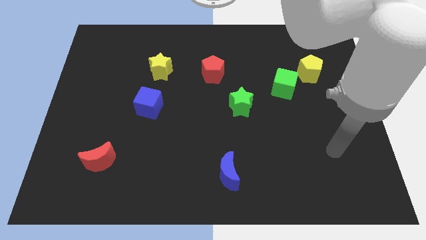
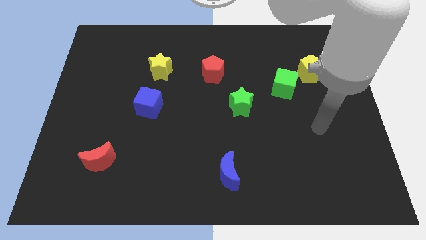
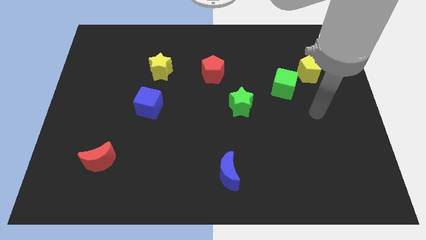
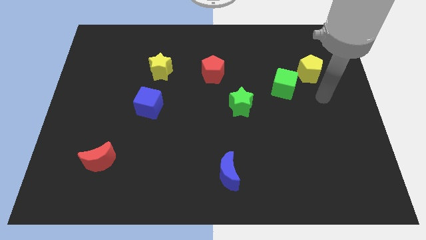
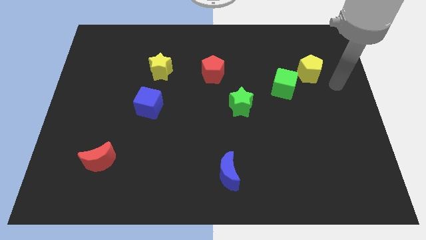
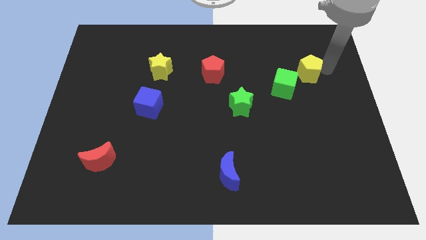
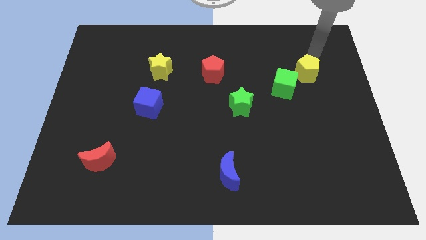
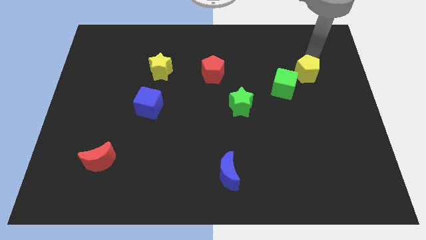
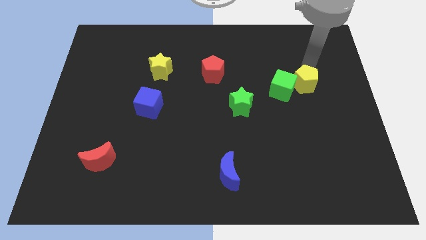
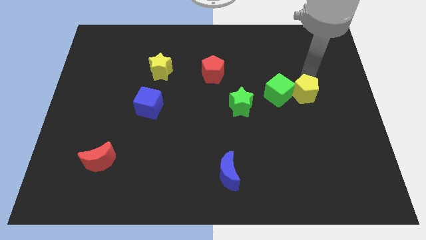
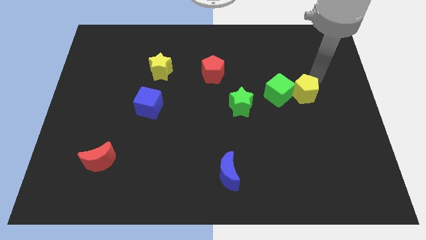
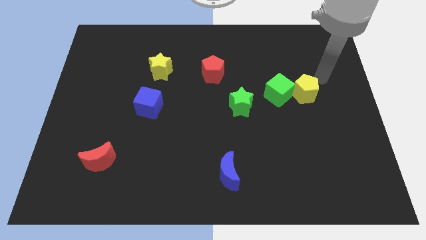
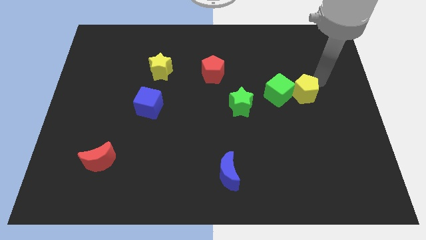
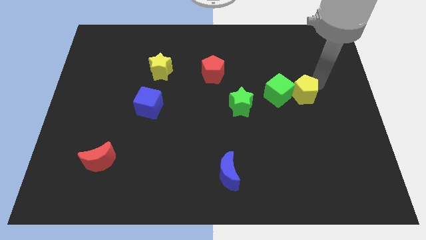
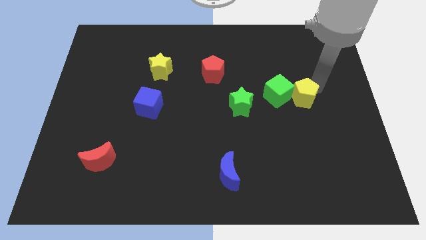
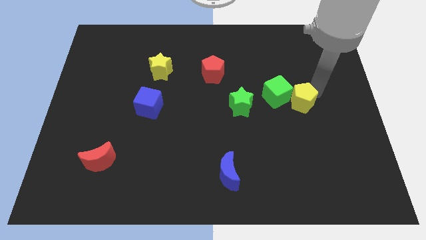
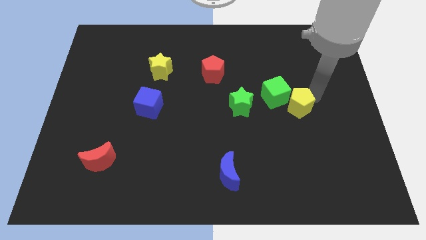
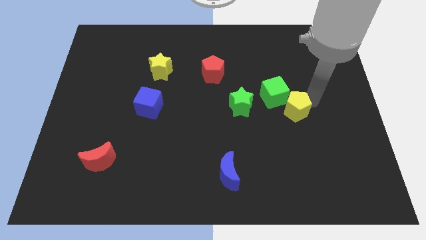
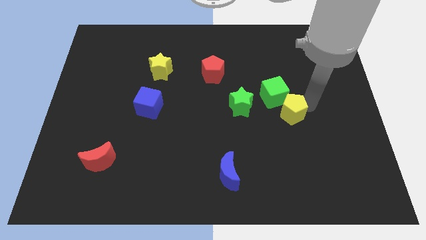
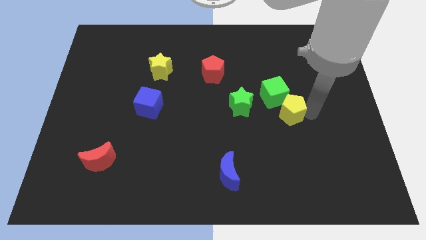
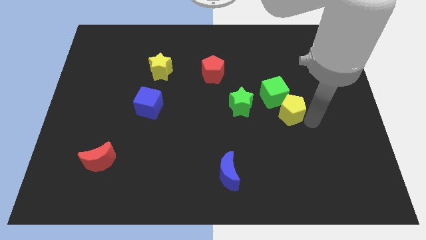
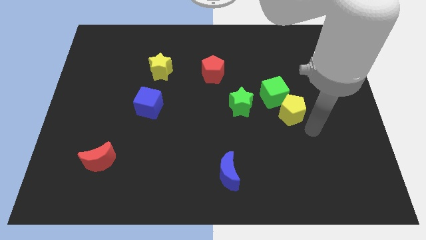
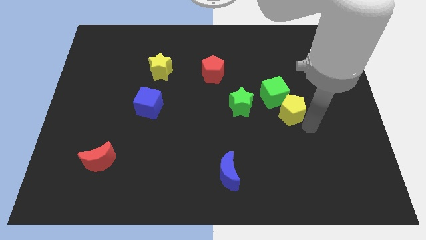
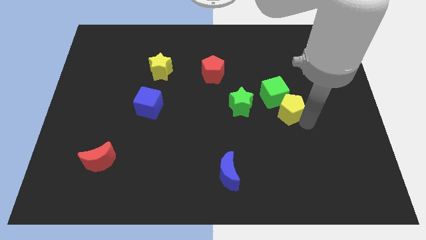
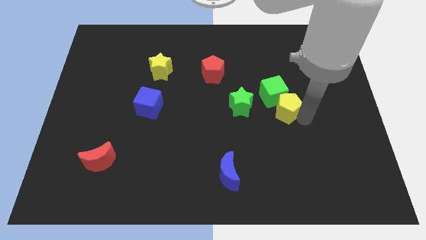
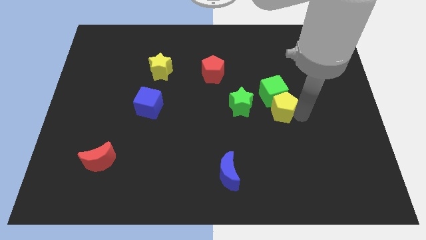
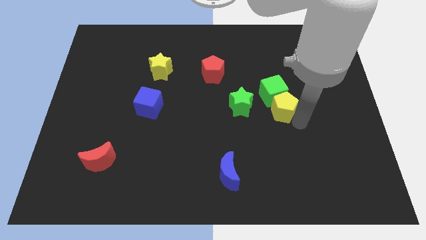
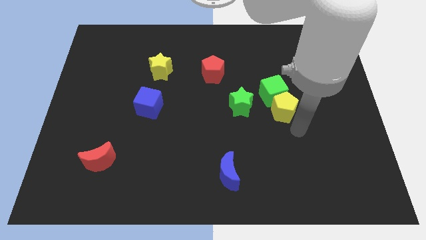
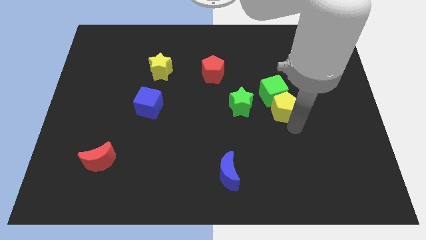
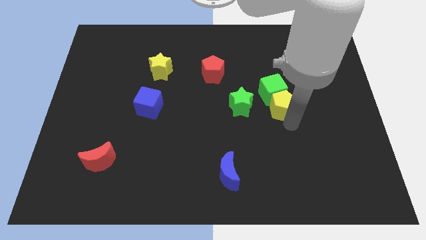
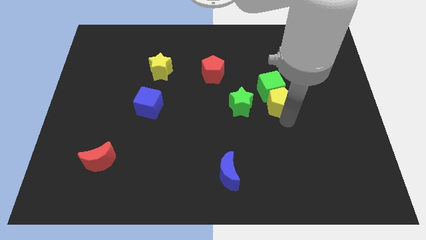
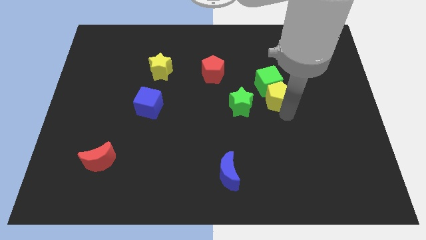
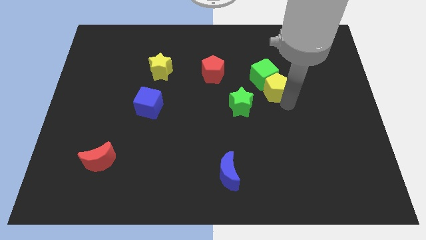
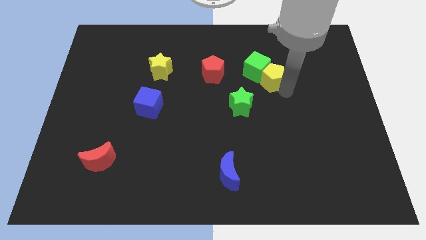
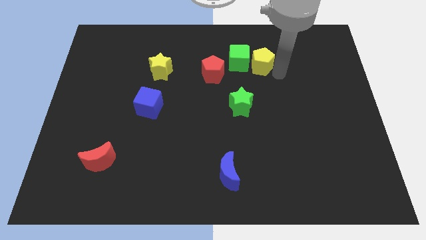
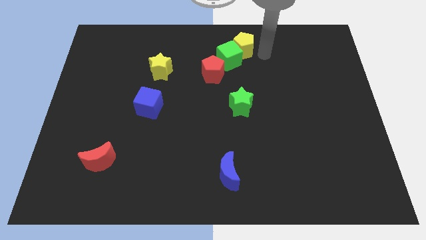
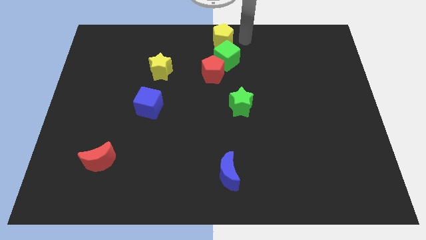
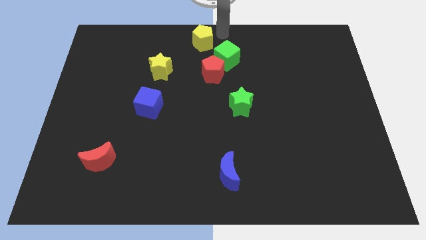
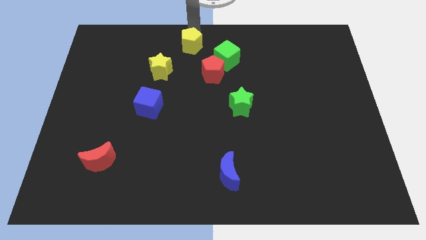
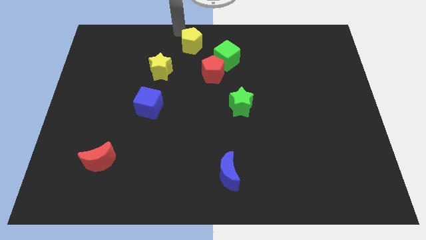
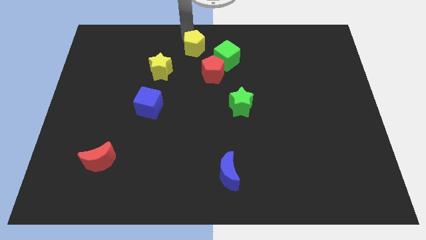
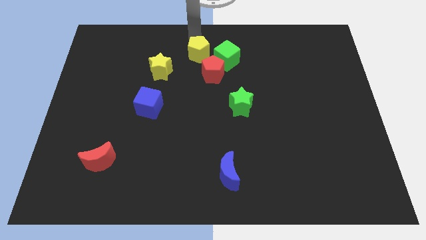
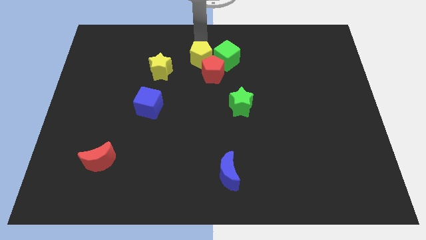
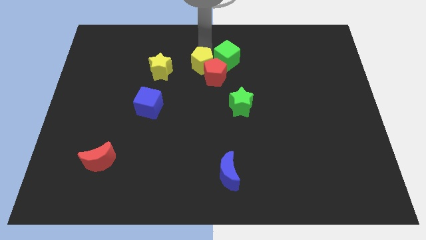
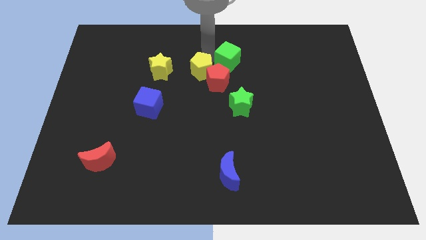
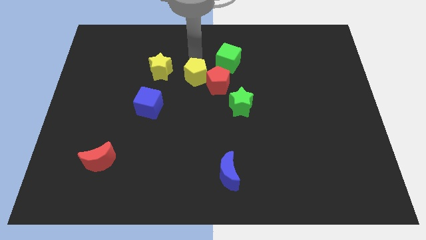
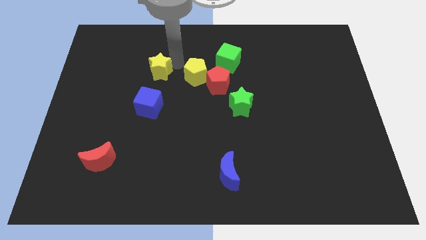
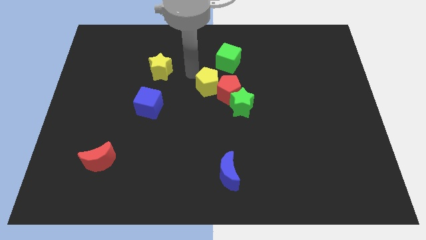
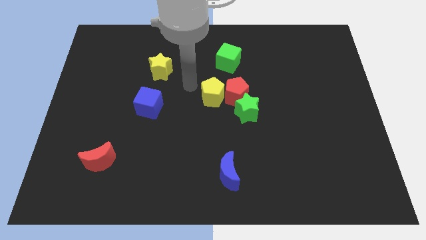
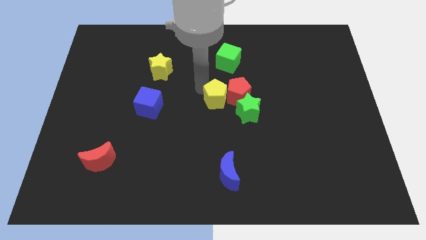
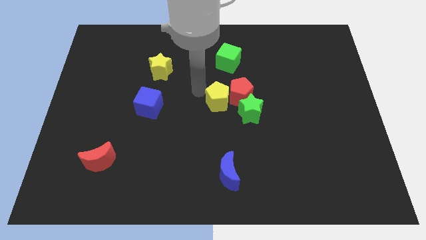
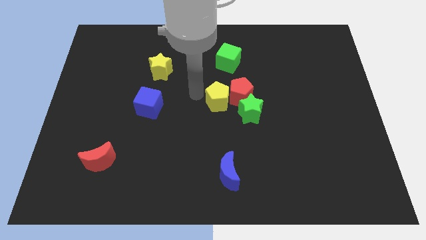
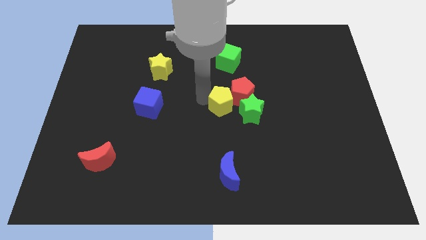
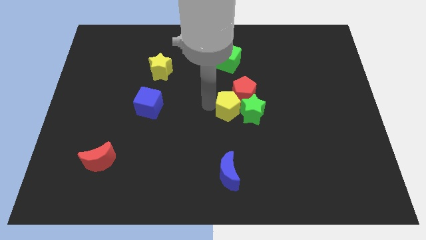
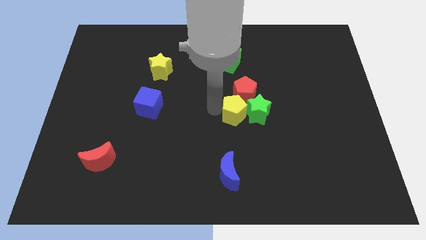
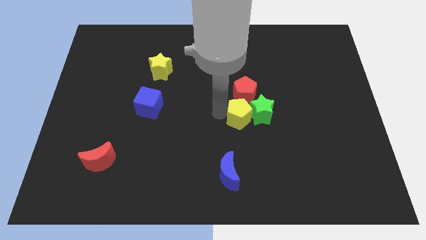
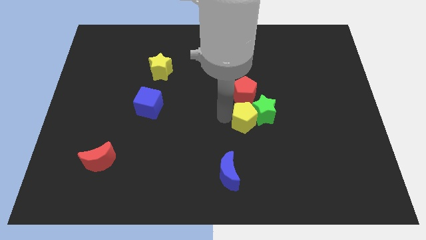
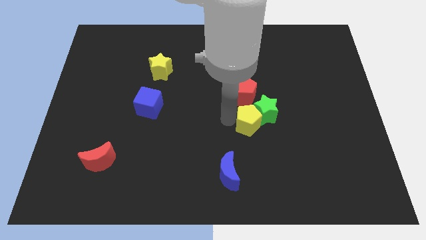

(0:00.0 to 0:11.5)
push the yellow pentagon to the bottom of the green star

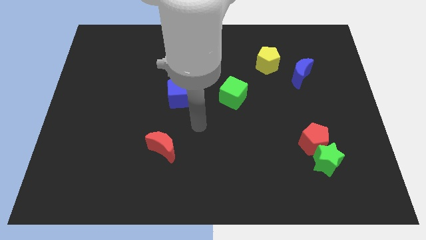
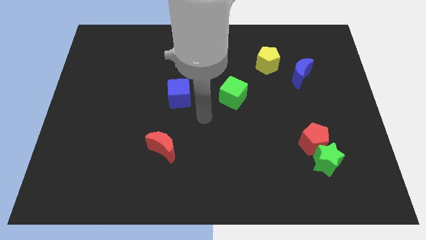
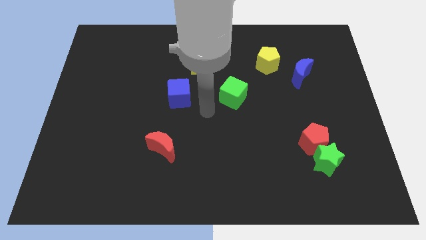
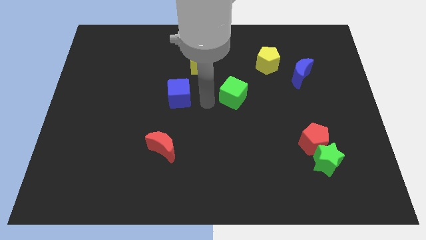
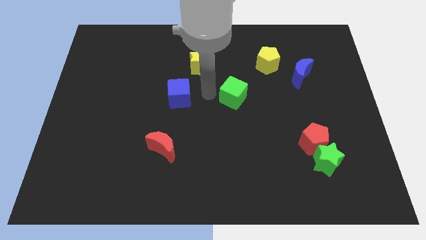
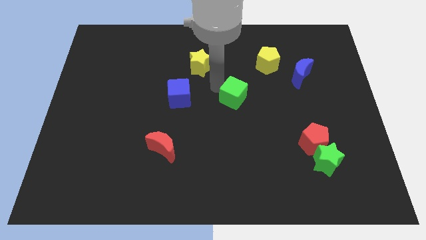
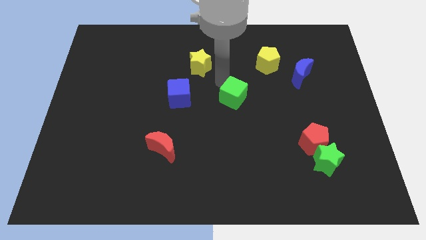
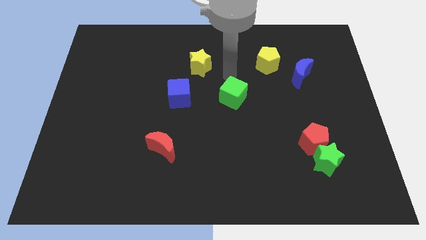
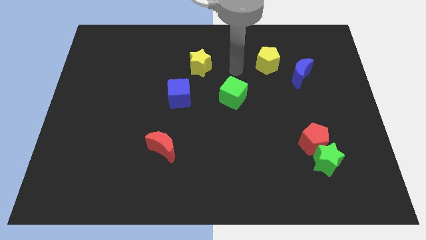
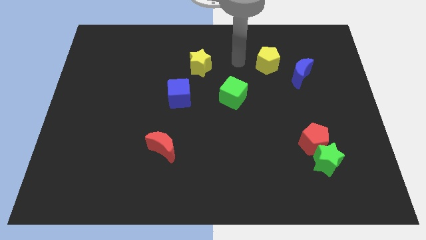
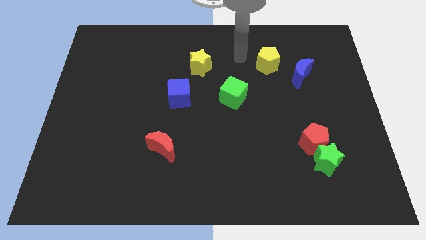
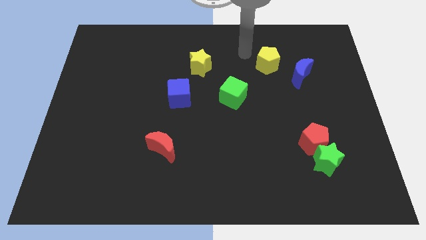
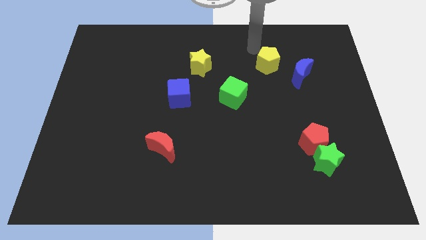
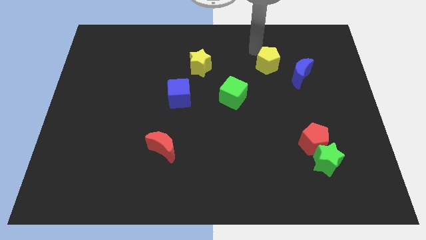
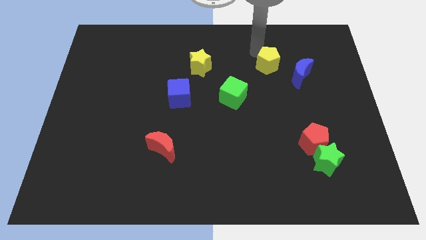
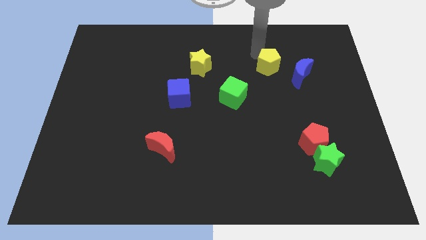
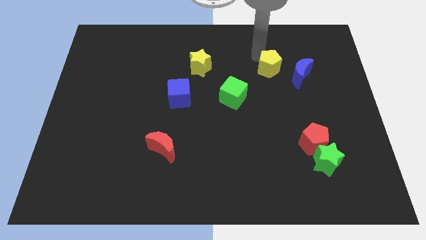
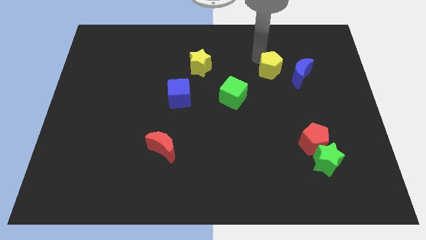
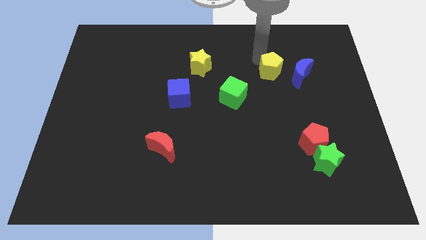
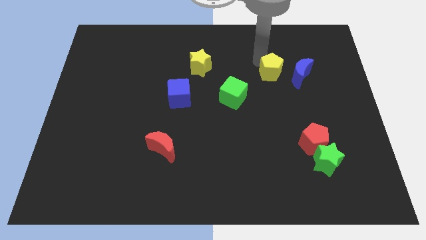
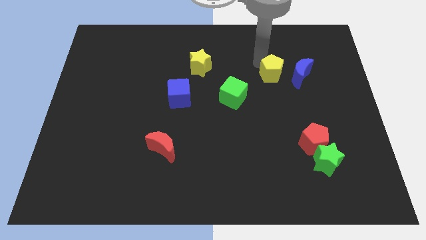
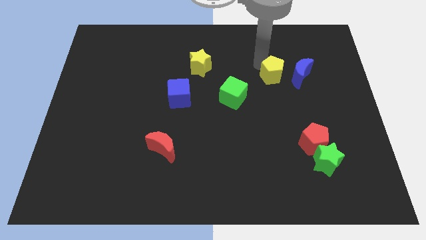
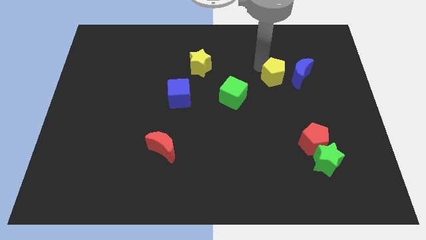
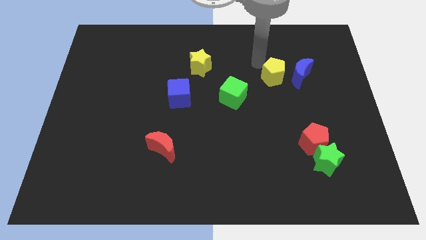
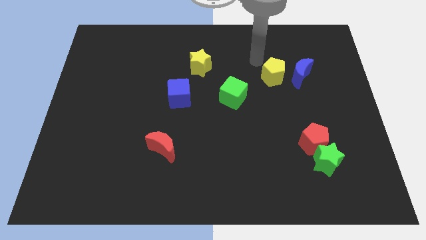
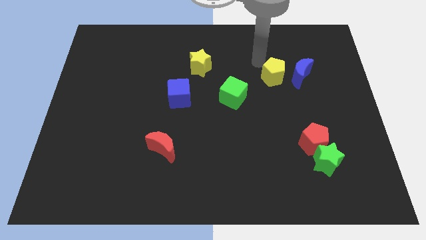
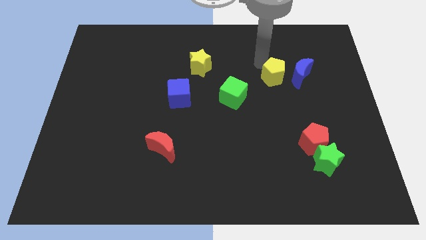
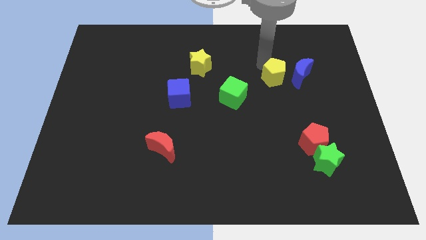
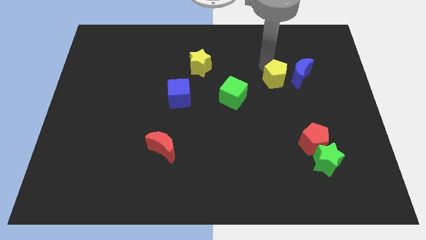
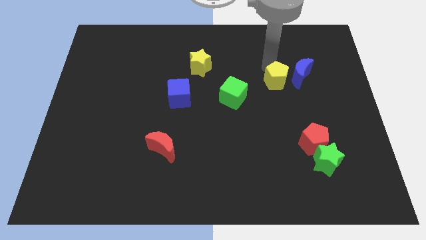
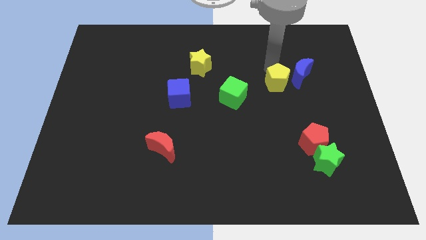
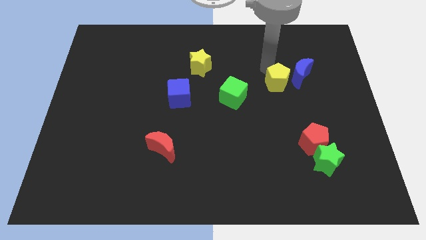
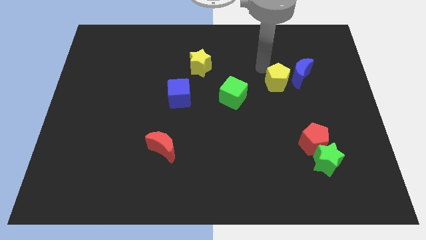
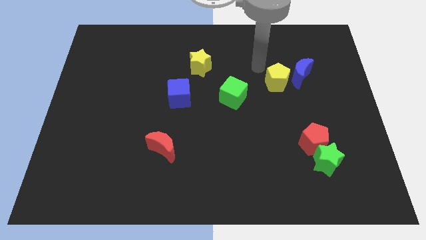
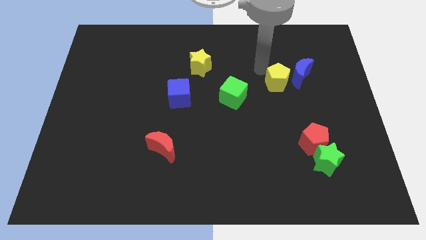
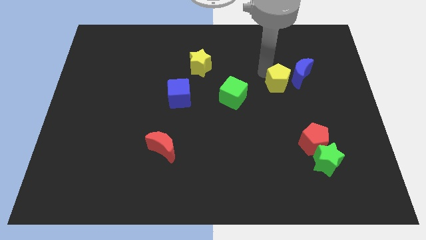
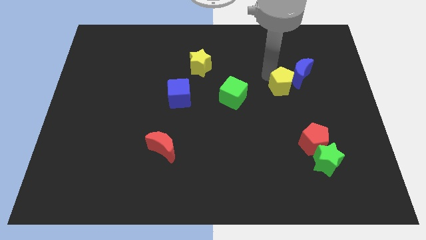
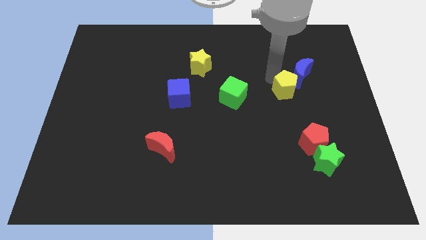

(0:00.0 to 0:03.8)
slide the yellow pentagon to the bottom of the blue moon
